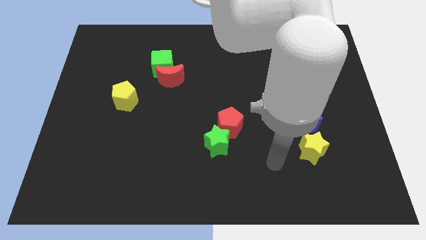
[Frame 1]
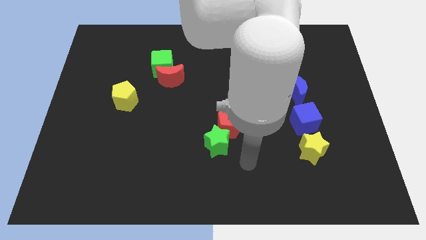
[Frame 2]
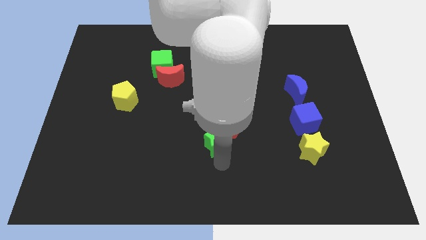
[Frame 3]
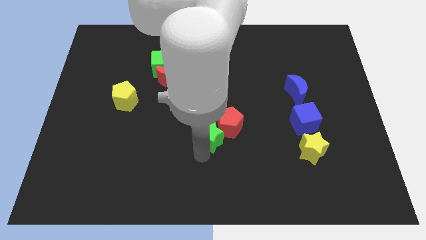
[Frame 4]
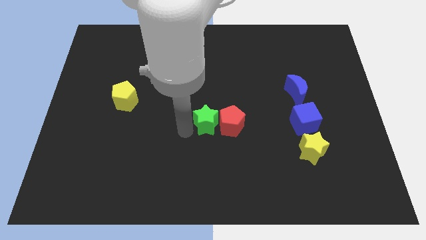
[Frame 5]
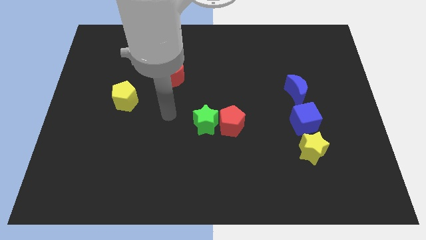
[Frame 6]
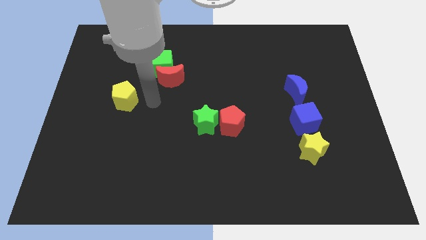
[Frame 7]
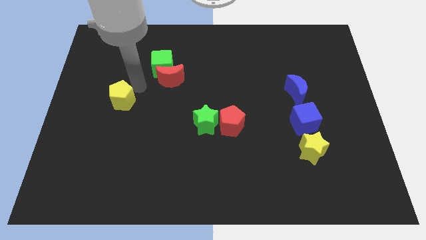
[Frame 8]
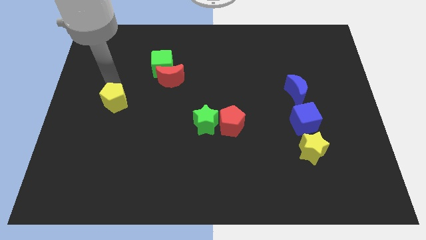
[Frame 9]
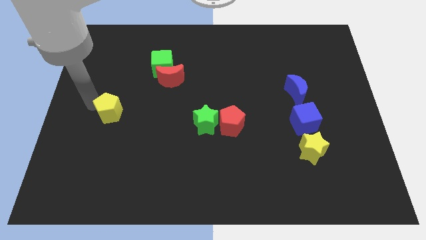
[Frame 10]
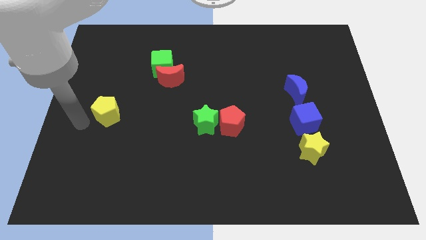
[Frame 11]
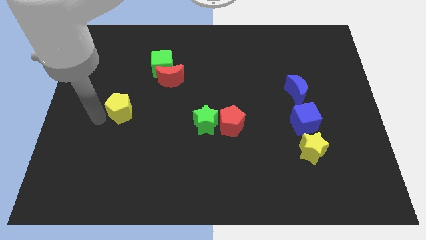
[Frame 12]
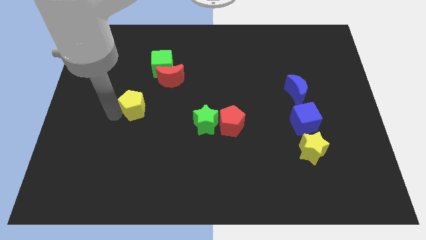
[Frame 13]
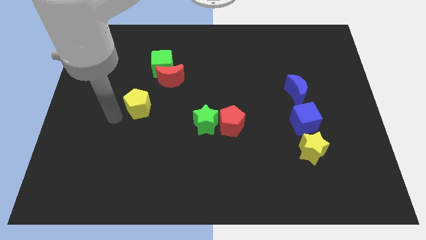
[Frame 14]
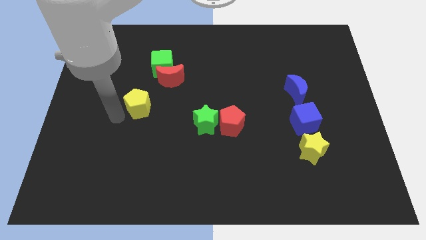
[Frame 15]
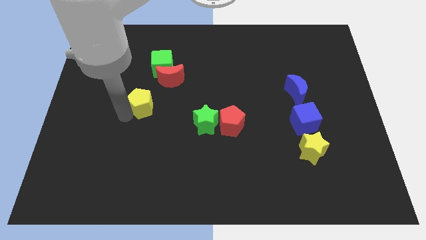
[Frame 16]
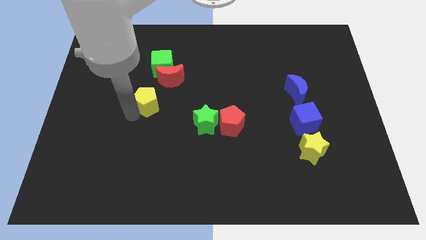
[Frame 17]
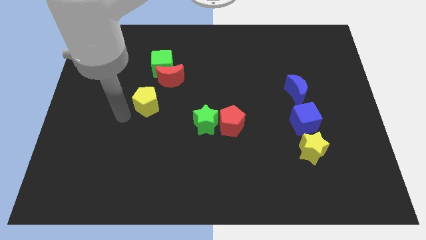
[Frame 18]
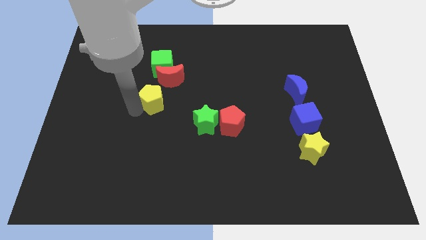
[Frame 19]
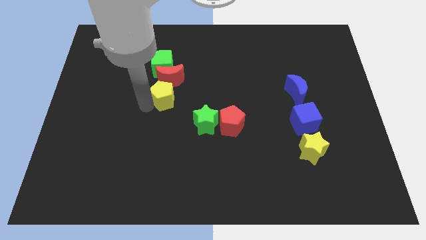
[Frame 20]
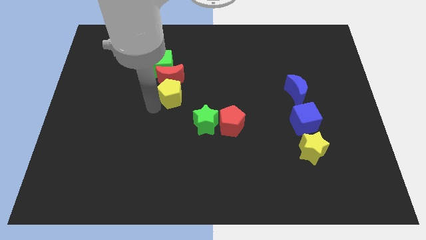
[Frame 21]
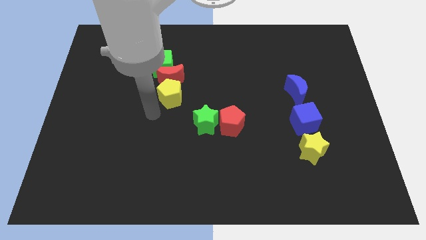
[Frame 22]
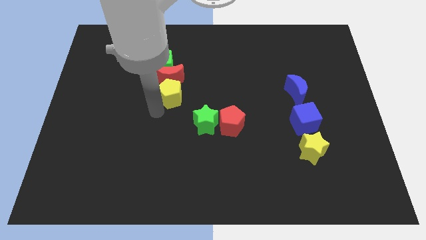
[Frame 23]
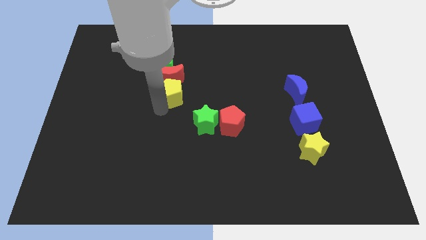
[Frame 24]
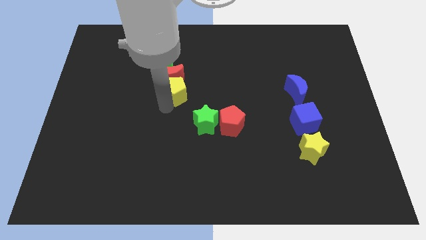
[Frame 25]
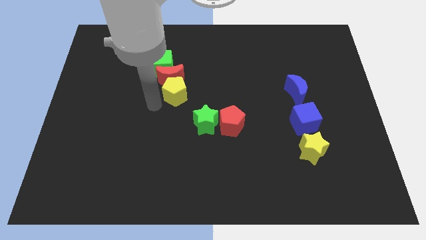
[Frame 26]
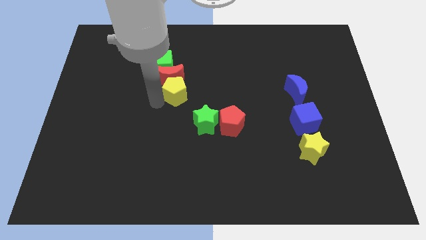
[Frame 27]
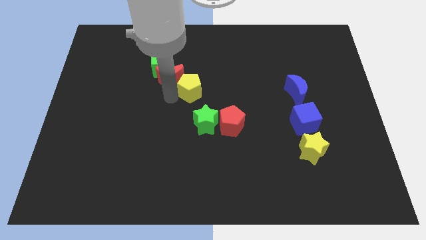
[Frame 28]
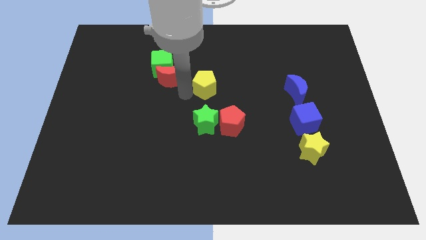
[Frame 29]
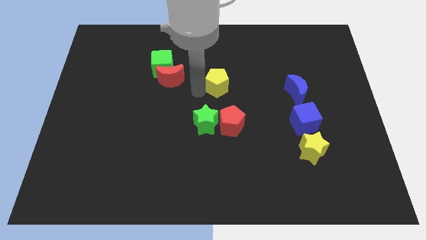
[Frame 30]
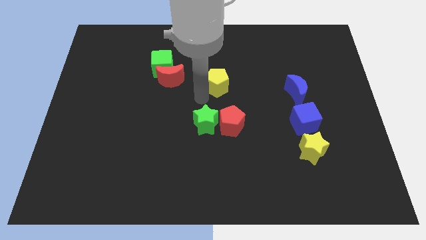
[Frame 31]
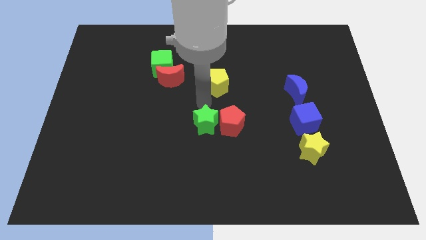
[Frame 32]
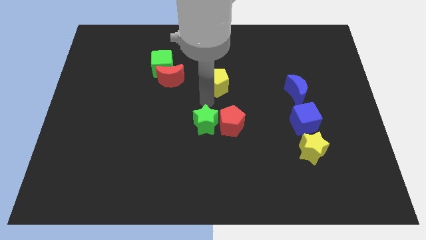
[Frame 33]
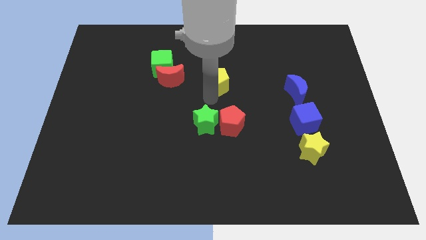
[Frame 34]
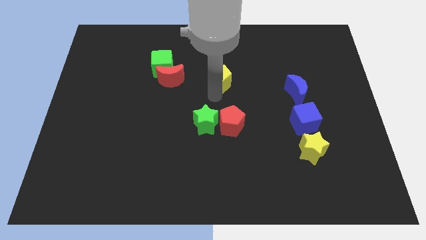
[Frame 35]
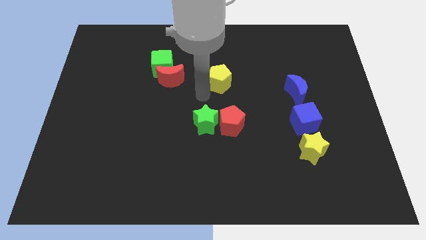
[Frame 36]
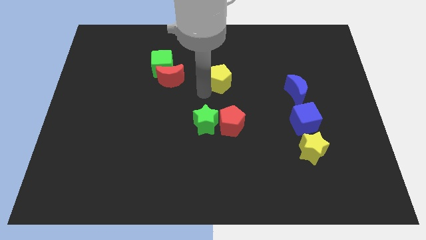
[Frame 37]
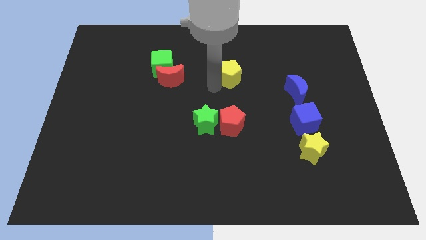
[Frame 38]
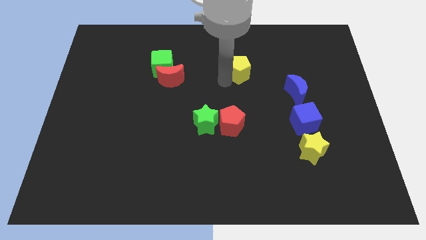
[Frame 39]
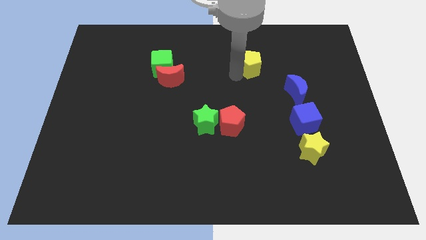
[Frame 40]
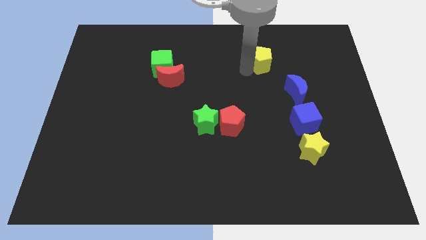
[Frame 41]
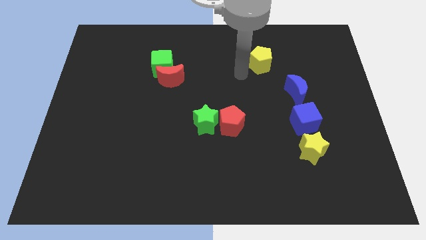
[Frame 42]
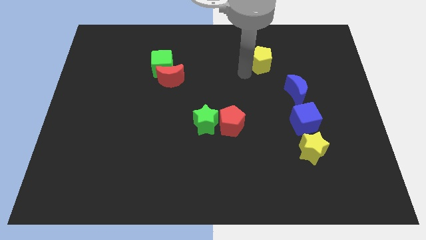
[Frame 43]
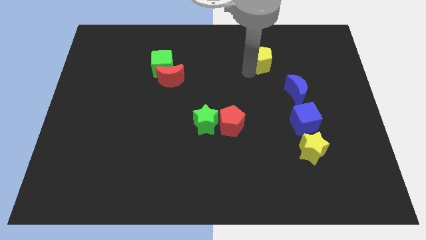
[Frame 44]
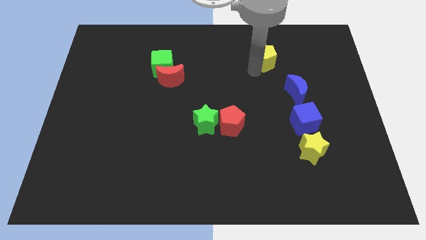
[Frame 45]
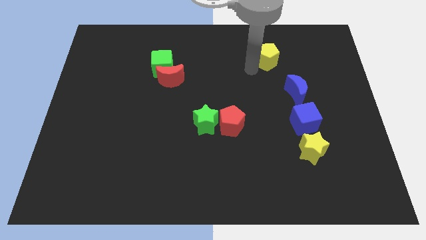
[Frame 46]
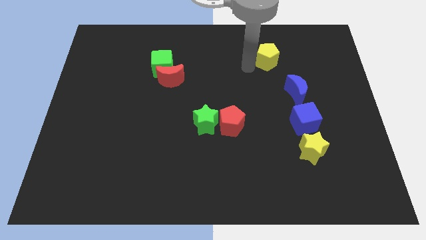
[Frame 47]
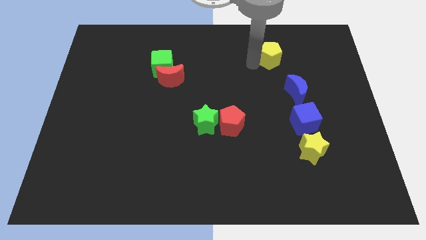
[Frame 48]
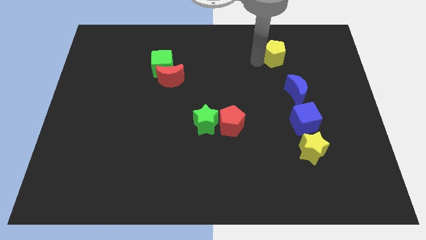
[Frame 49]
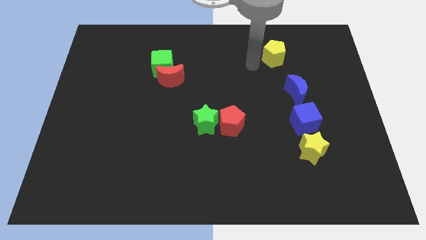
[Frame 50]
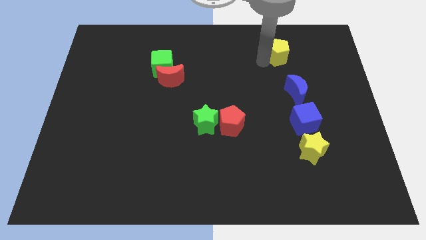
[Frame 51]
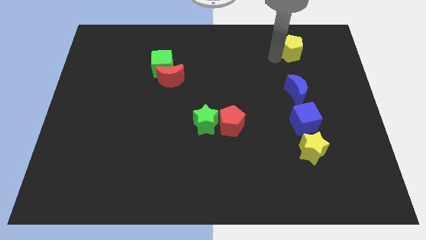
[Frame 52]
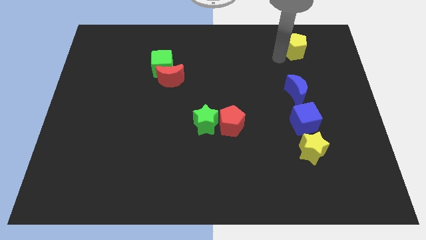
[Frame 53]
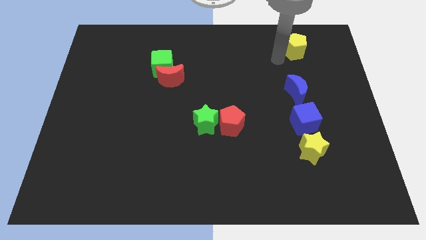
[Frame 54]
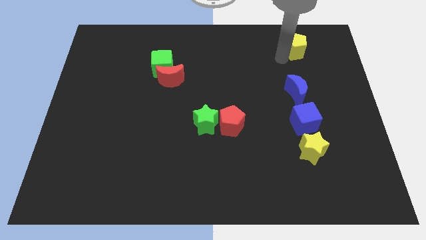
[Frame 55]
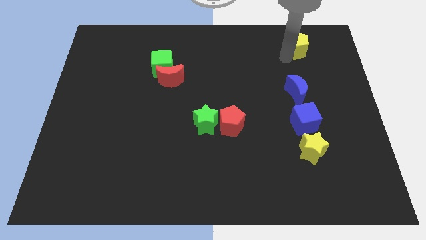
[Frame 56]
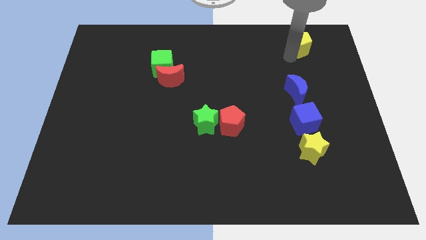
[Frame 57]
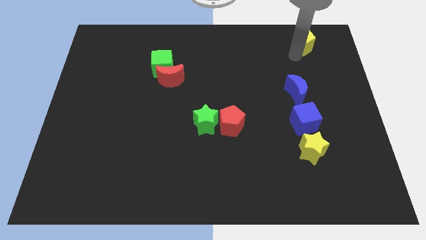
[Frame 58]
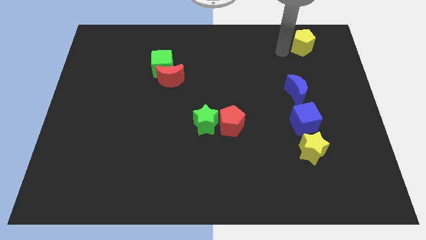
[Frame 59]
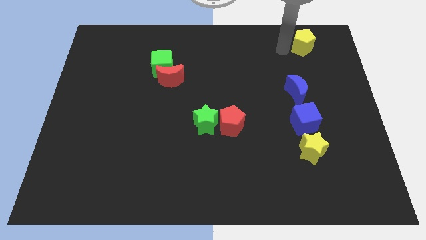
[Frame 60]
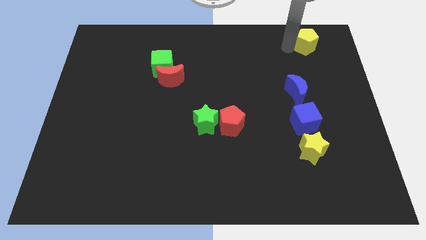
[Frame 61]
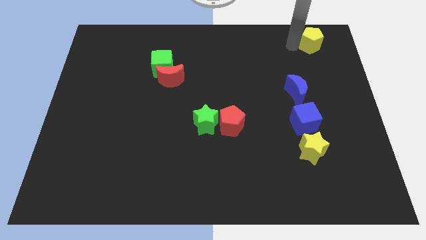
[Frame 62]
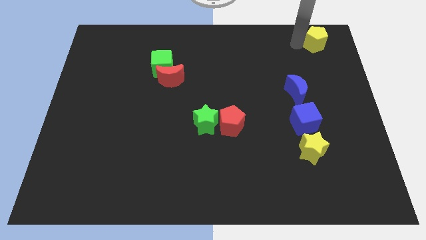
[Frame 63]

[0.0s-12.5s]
slide the yellow pentagon to the top right of the board

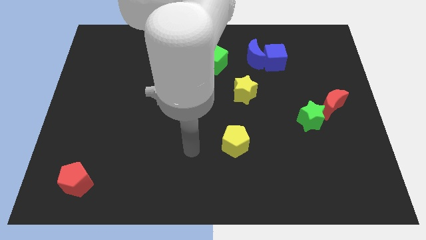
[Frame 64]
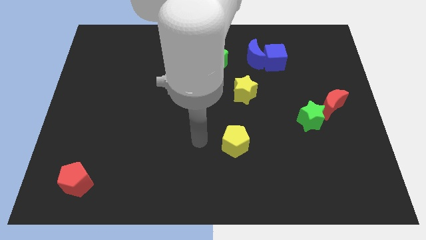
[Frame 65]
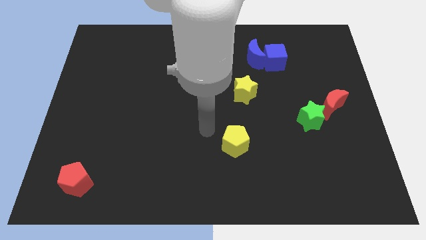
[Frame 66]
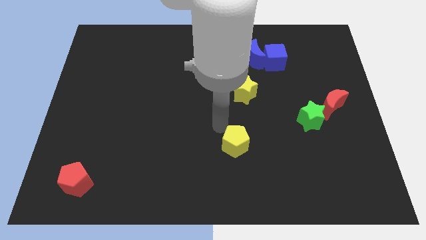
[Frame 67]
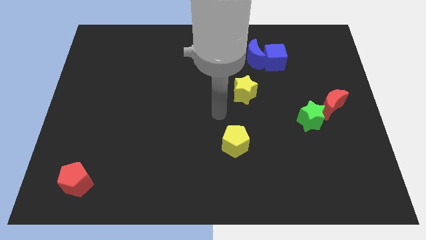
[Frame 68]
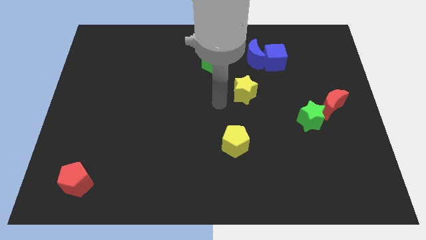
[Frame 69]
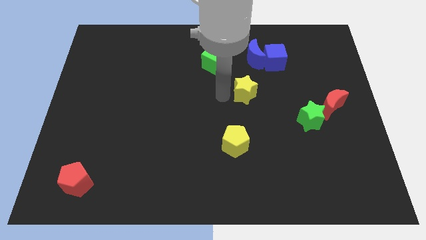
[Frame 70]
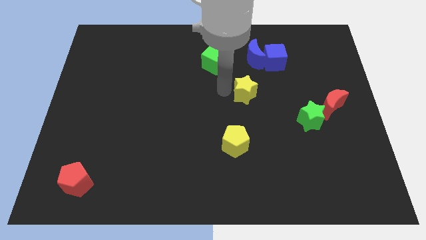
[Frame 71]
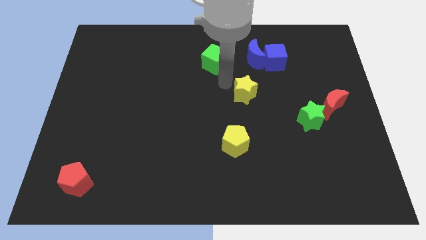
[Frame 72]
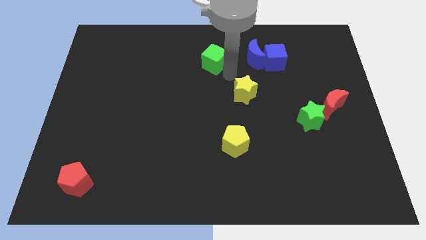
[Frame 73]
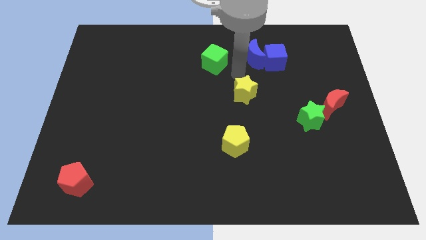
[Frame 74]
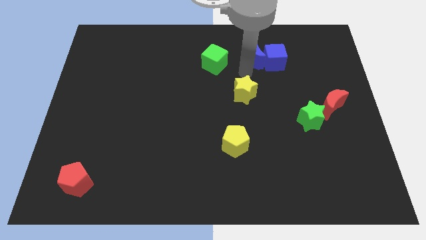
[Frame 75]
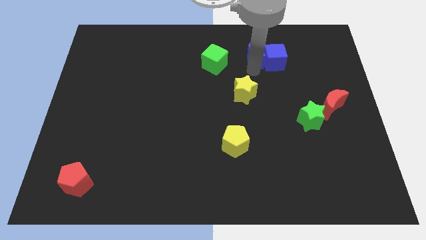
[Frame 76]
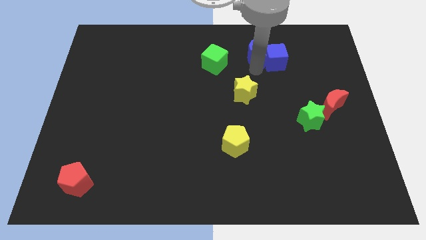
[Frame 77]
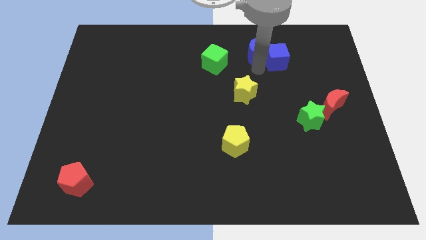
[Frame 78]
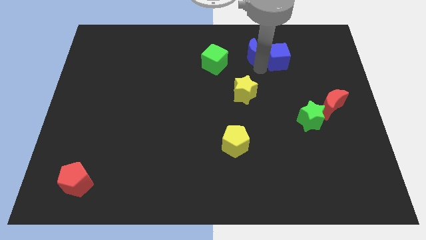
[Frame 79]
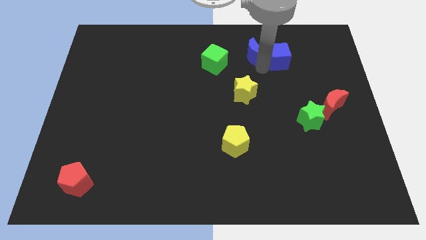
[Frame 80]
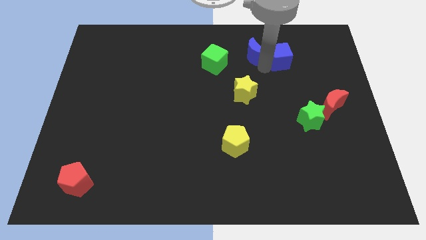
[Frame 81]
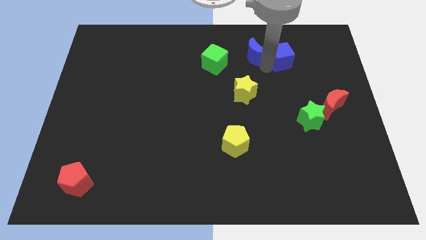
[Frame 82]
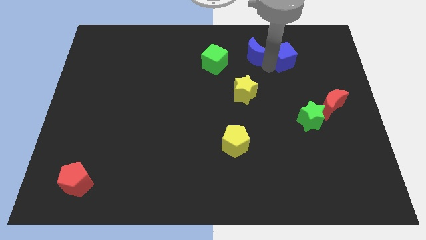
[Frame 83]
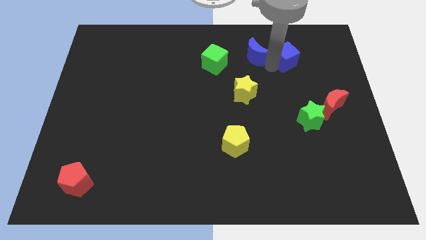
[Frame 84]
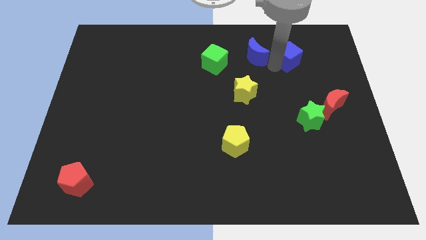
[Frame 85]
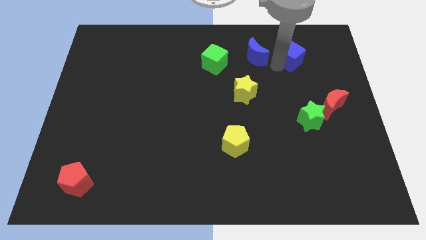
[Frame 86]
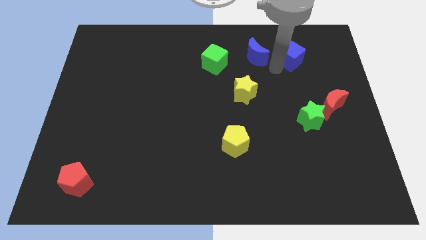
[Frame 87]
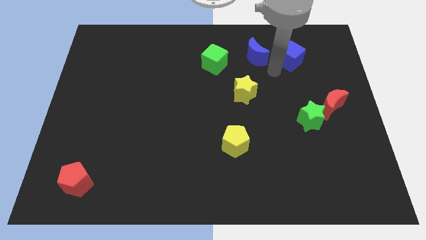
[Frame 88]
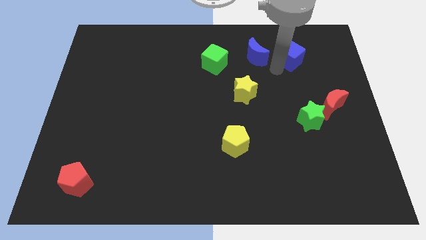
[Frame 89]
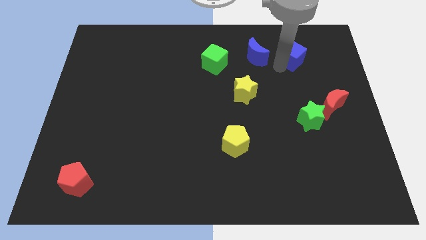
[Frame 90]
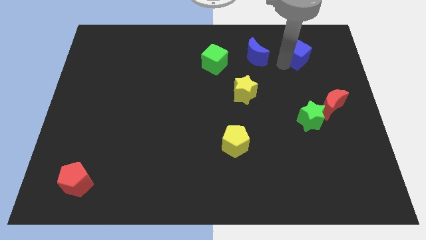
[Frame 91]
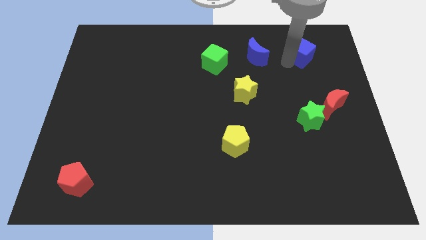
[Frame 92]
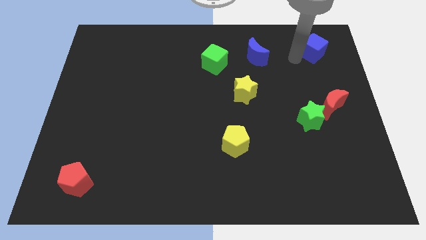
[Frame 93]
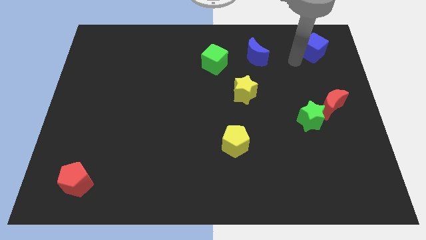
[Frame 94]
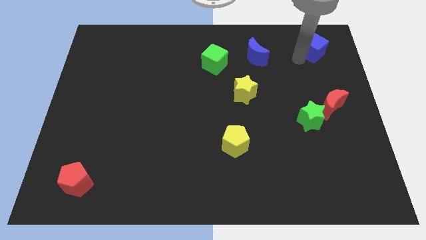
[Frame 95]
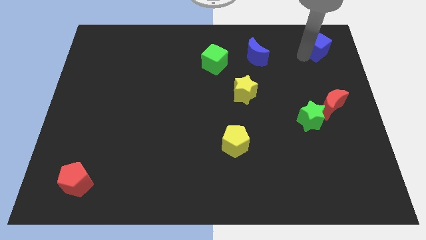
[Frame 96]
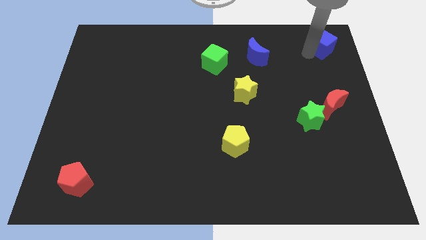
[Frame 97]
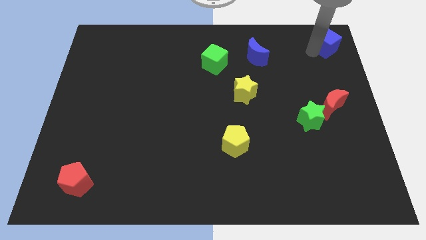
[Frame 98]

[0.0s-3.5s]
push the blue cube to the top right corner
